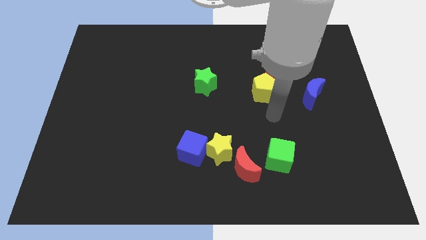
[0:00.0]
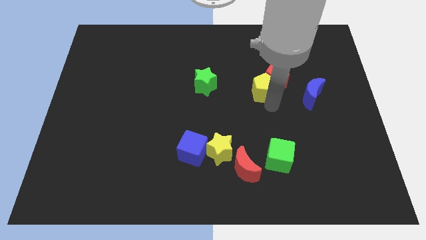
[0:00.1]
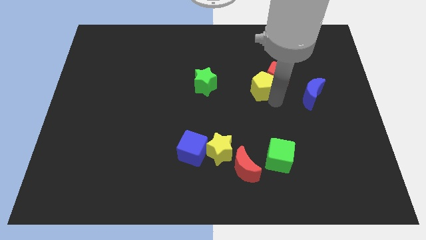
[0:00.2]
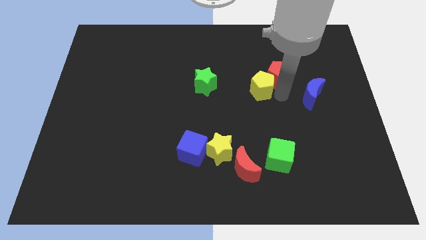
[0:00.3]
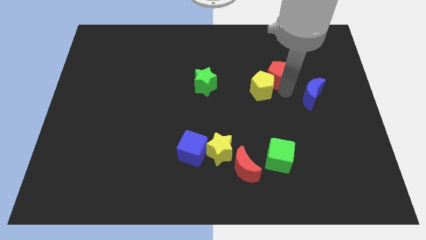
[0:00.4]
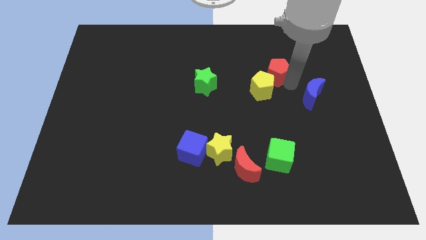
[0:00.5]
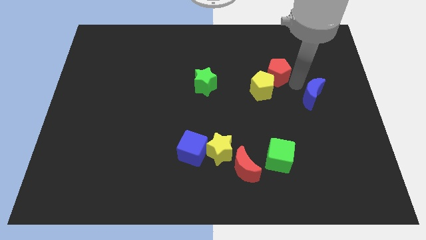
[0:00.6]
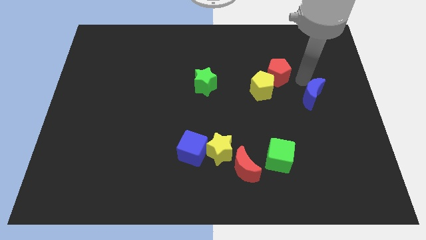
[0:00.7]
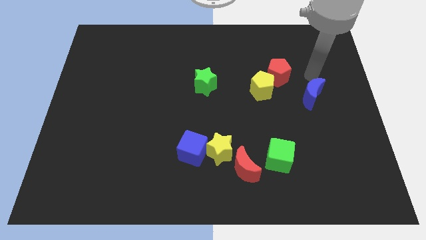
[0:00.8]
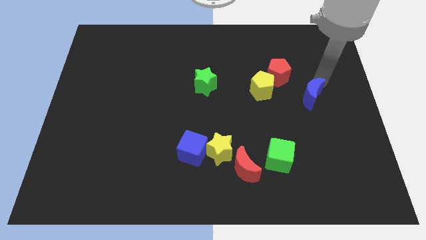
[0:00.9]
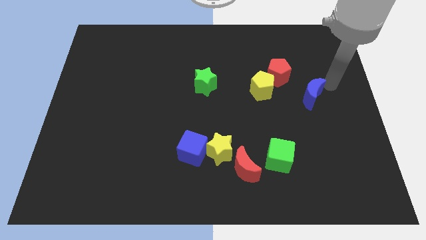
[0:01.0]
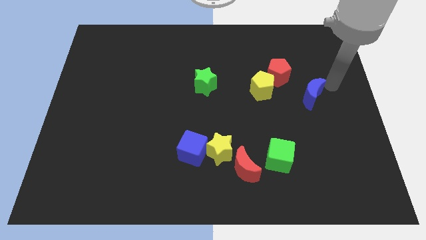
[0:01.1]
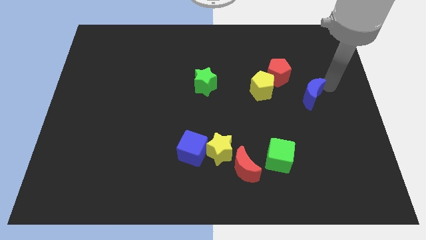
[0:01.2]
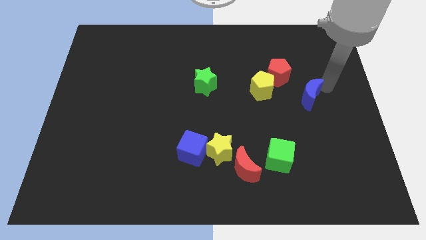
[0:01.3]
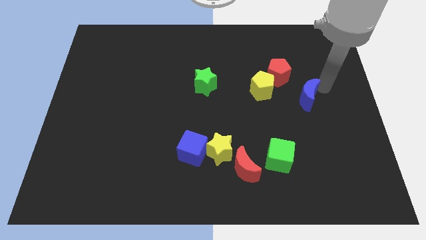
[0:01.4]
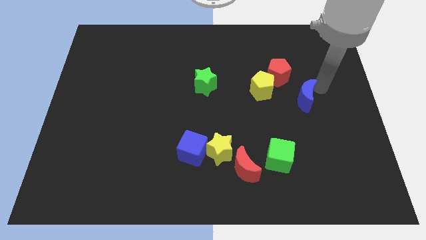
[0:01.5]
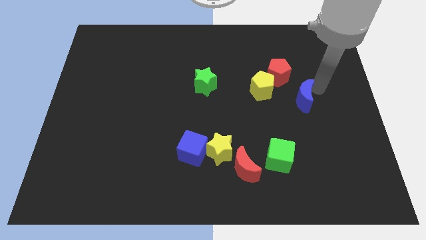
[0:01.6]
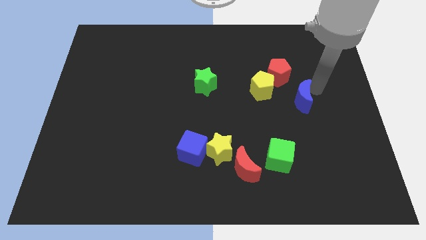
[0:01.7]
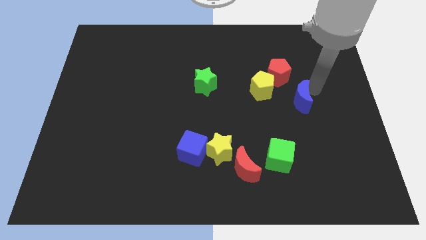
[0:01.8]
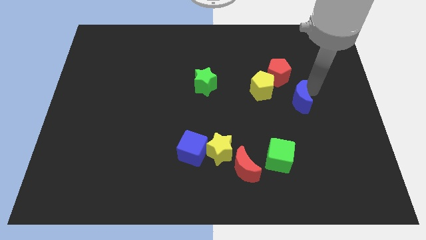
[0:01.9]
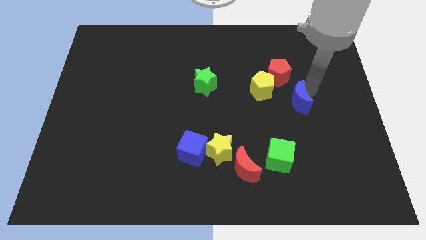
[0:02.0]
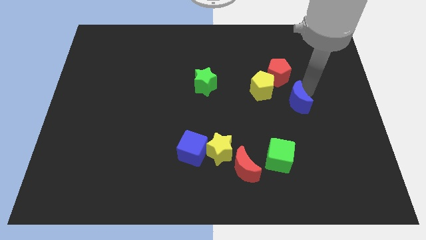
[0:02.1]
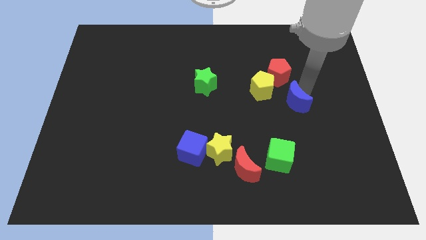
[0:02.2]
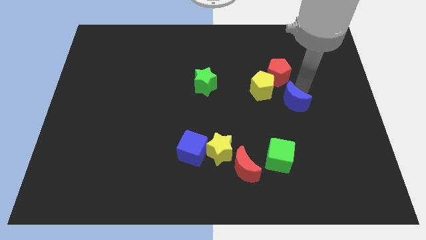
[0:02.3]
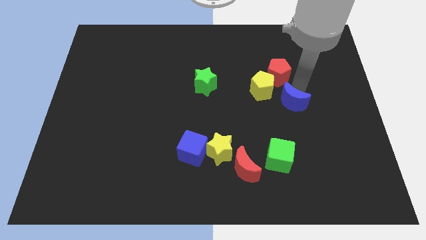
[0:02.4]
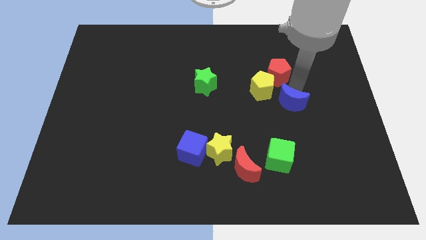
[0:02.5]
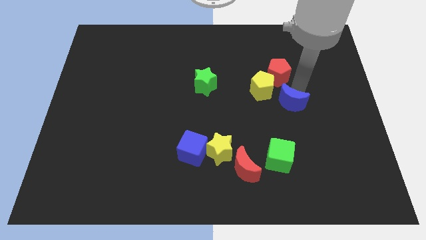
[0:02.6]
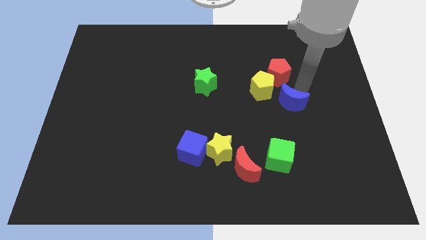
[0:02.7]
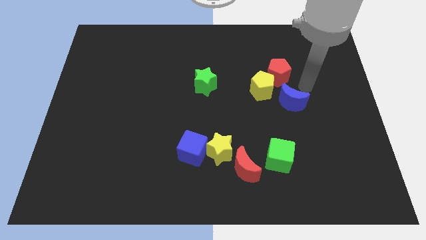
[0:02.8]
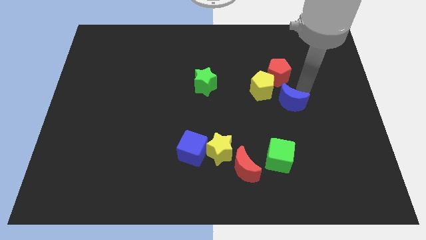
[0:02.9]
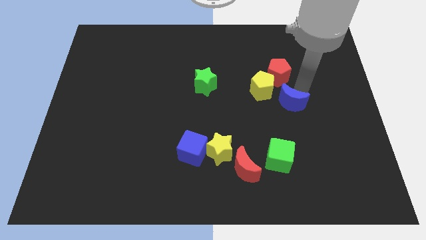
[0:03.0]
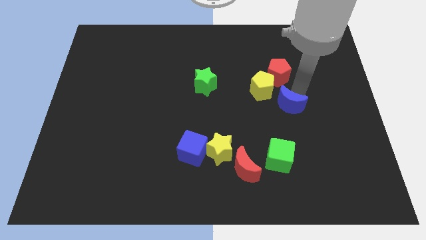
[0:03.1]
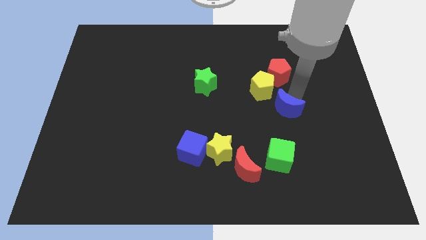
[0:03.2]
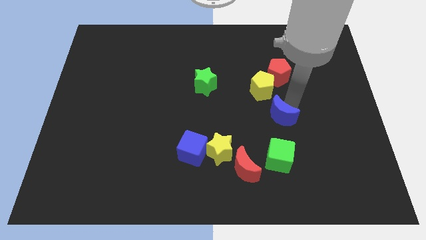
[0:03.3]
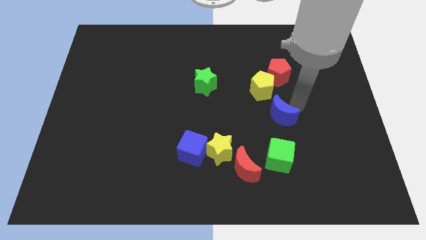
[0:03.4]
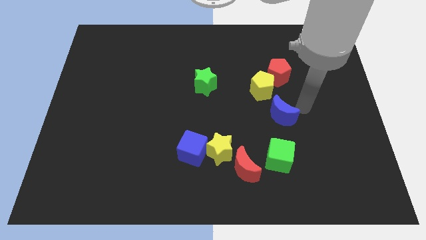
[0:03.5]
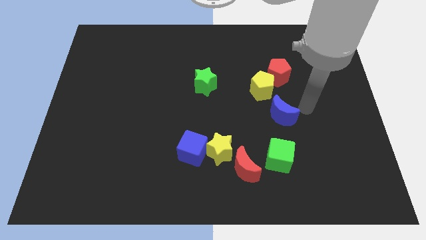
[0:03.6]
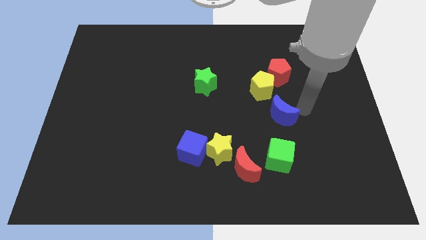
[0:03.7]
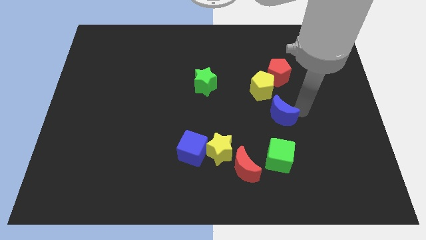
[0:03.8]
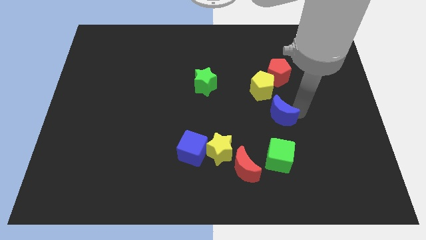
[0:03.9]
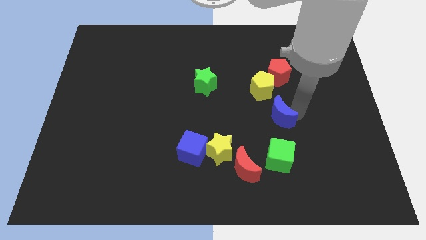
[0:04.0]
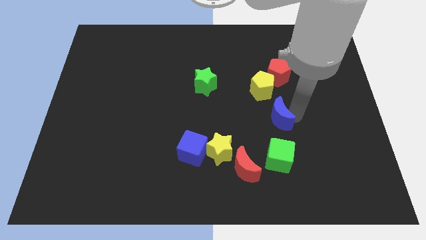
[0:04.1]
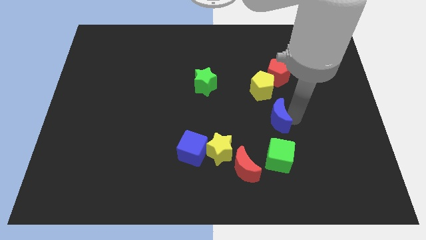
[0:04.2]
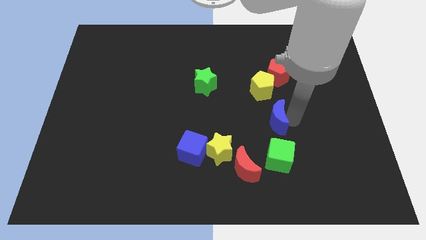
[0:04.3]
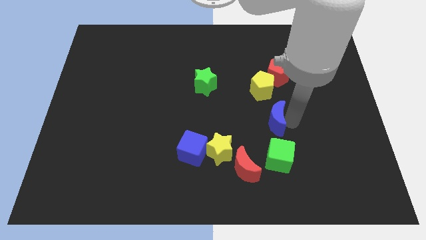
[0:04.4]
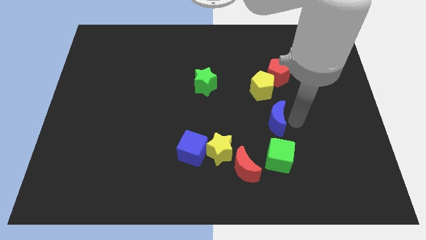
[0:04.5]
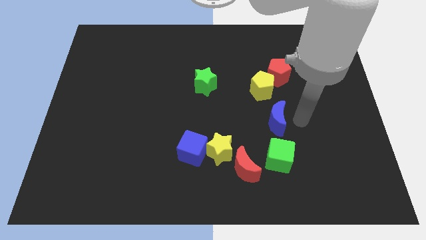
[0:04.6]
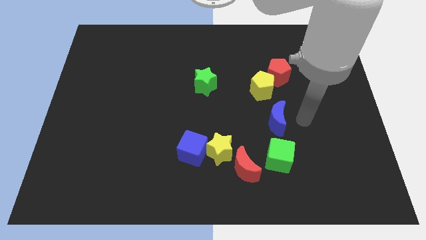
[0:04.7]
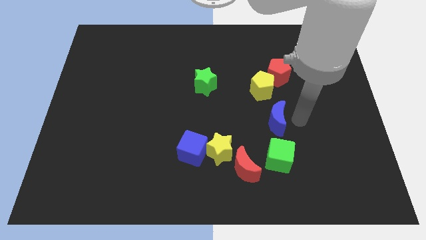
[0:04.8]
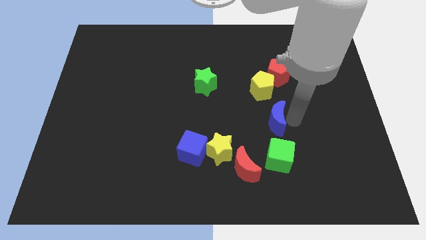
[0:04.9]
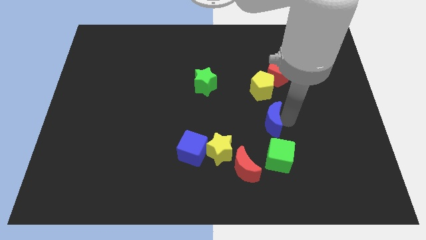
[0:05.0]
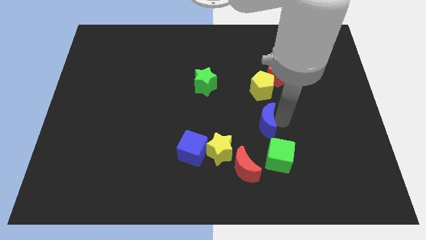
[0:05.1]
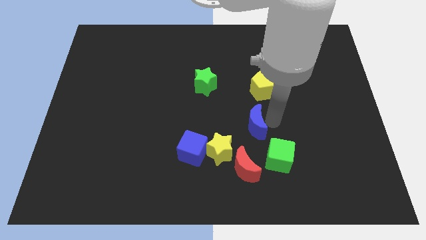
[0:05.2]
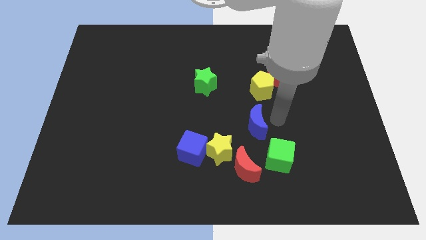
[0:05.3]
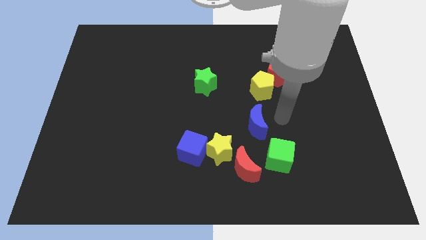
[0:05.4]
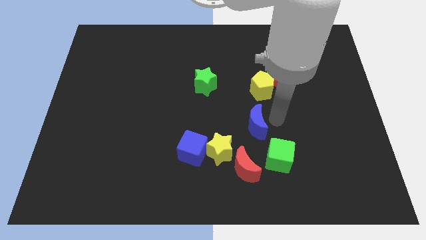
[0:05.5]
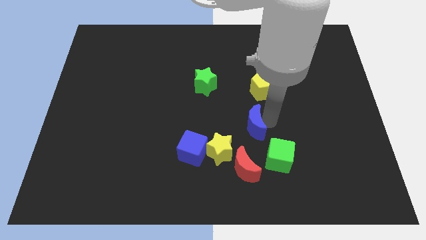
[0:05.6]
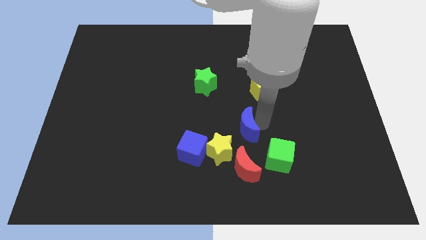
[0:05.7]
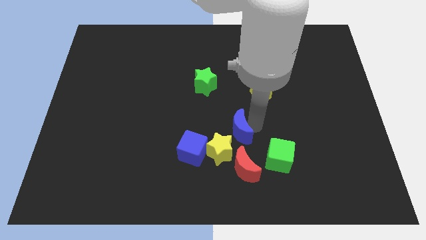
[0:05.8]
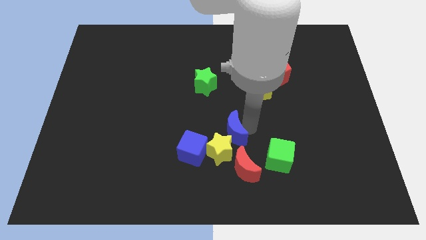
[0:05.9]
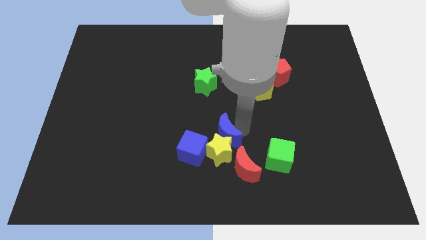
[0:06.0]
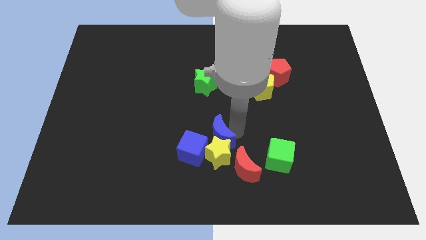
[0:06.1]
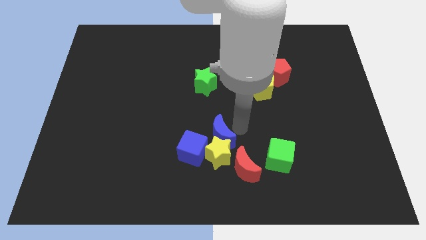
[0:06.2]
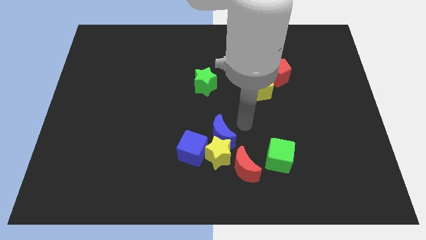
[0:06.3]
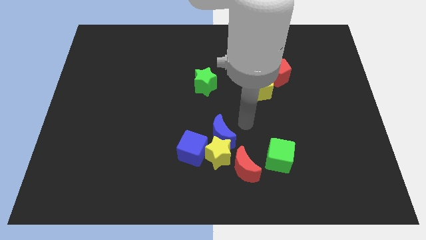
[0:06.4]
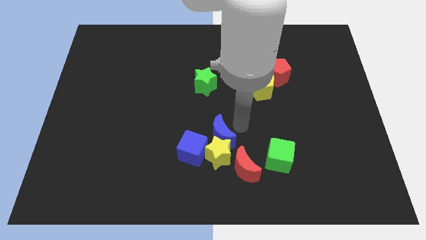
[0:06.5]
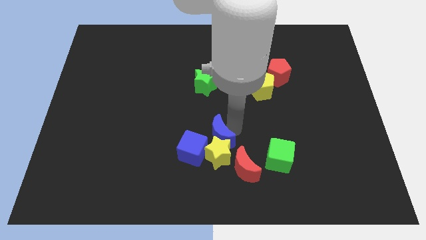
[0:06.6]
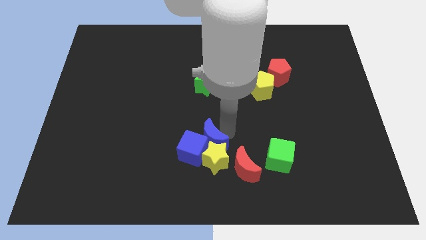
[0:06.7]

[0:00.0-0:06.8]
push the blue moon next to the blue cube
